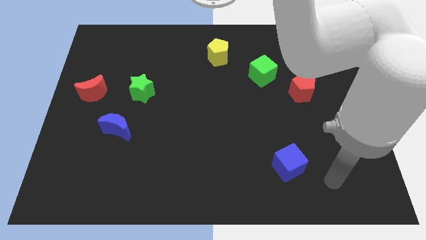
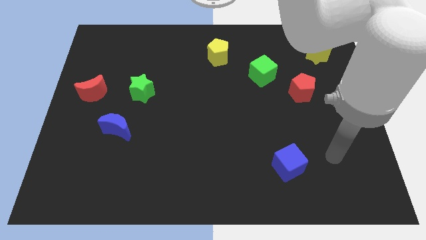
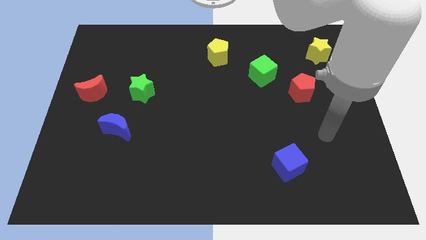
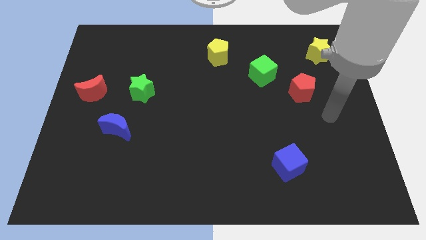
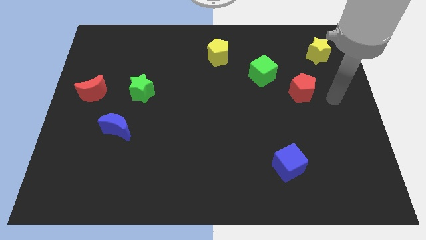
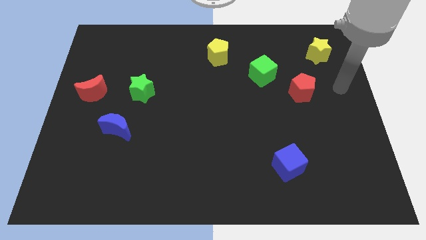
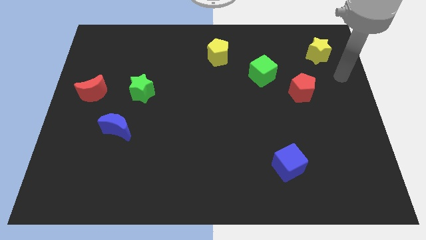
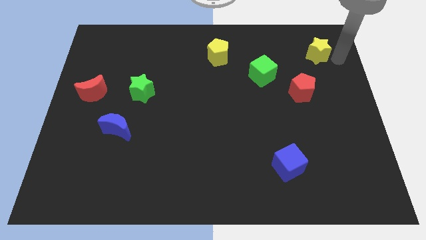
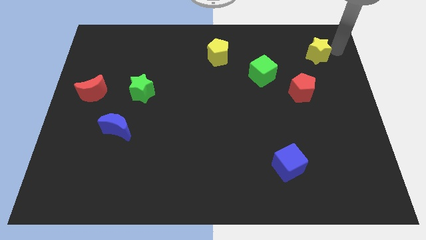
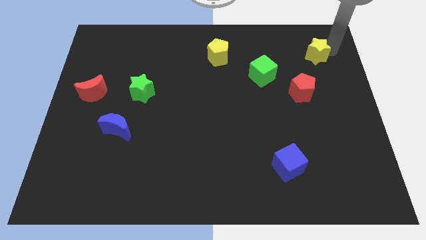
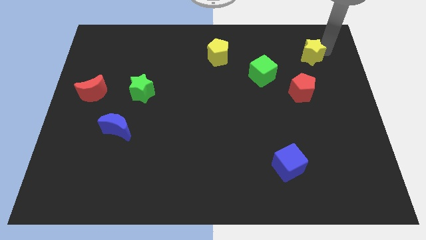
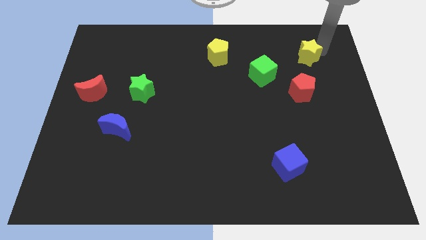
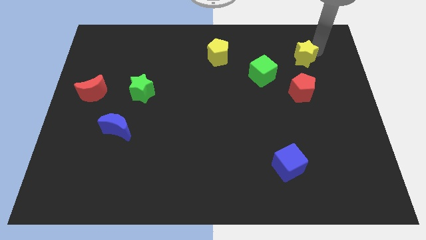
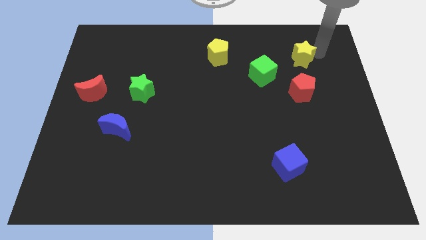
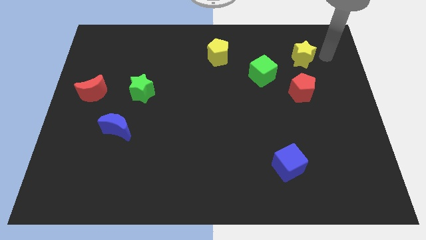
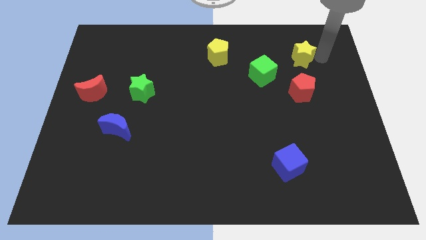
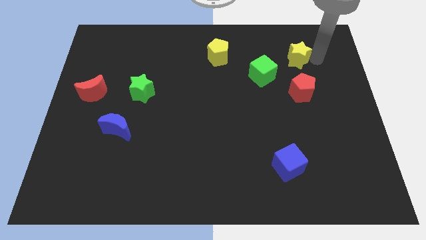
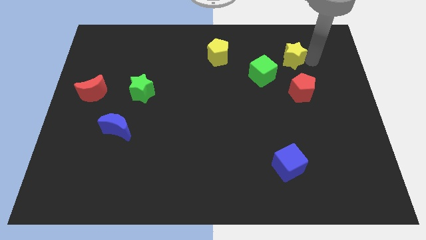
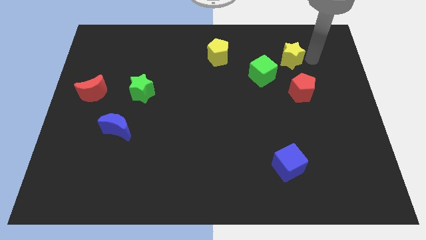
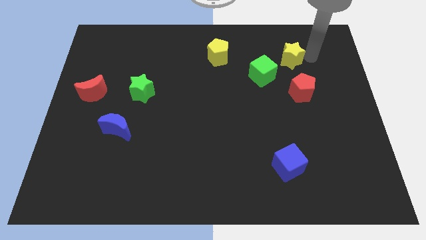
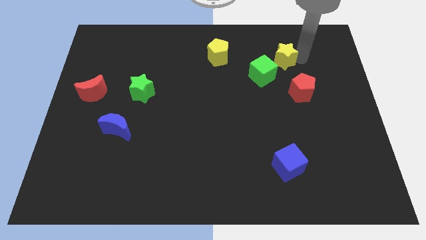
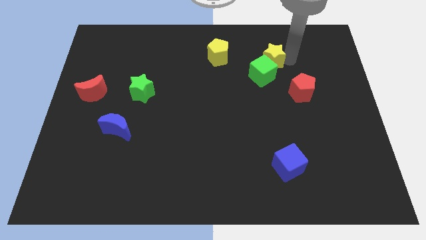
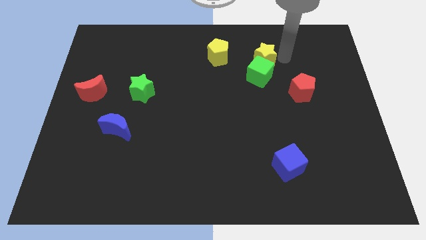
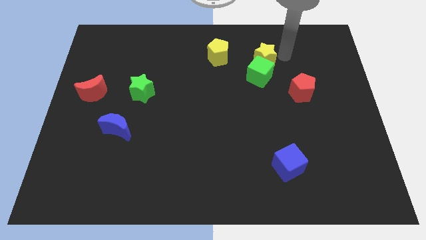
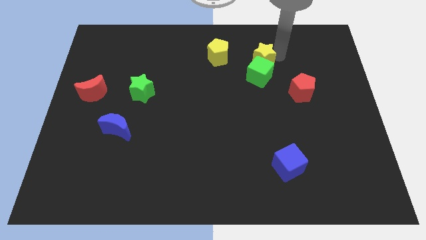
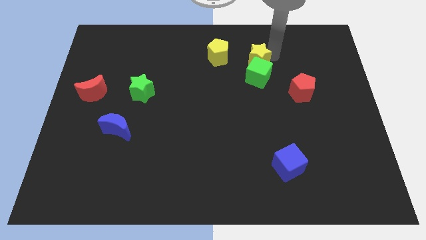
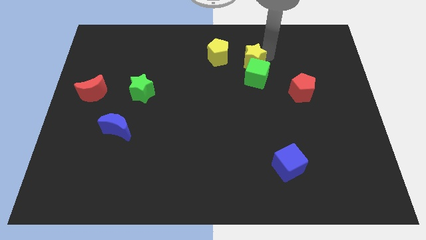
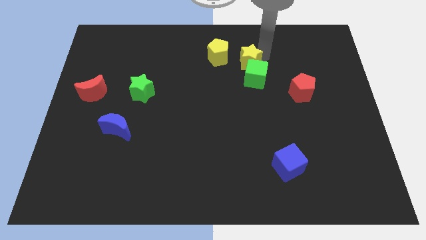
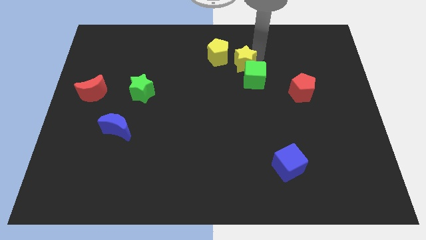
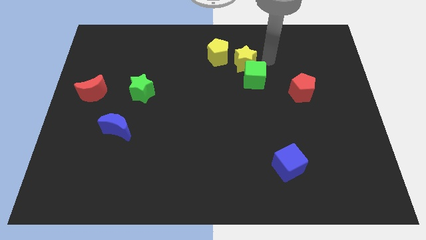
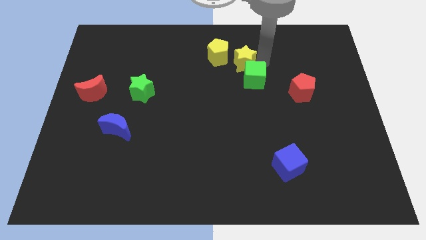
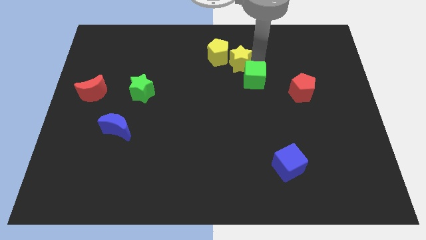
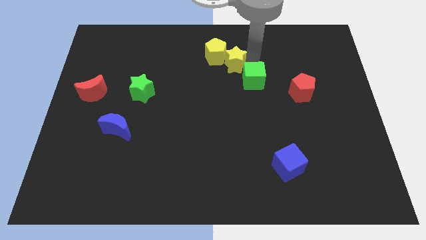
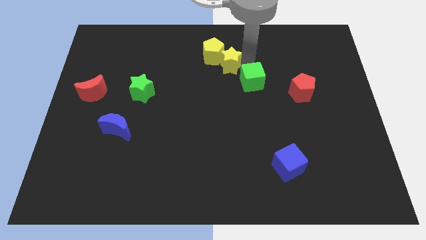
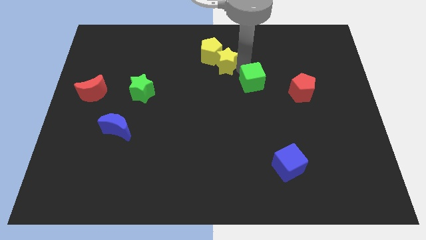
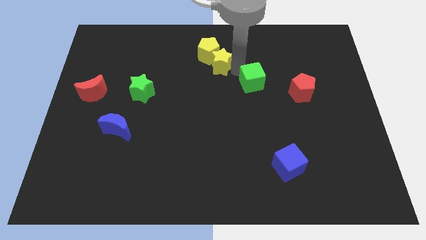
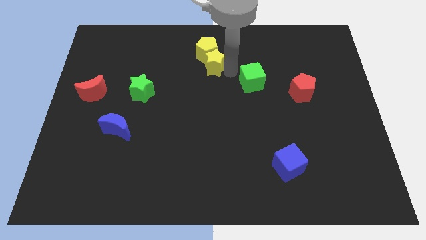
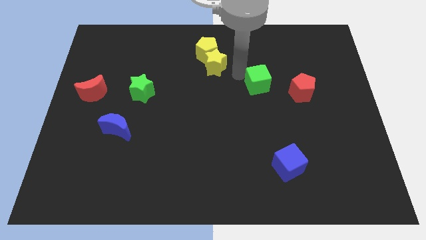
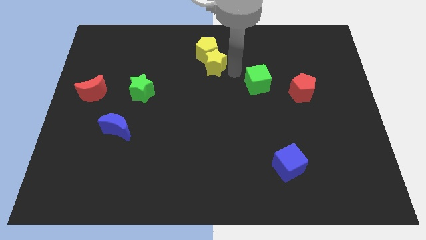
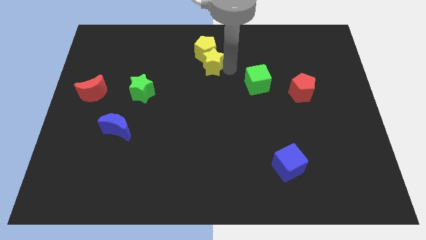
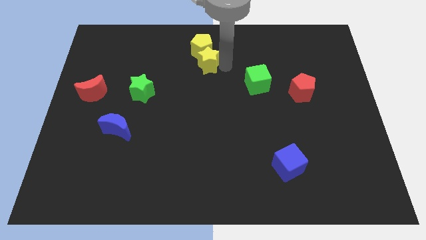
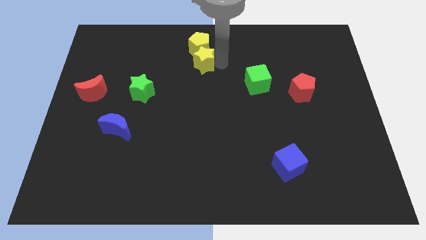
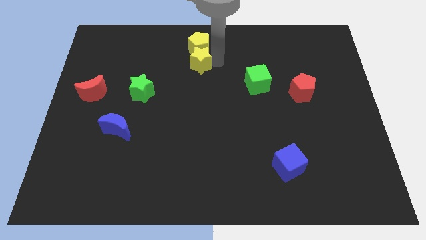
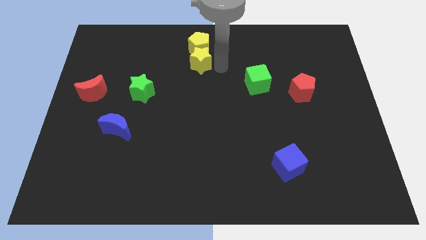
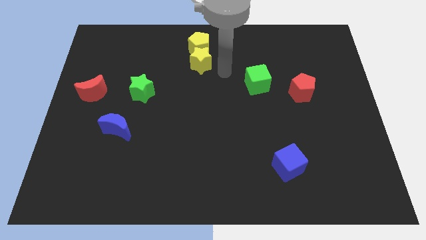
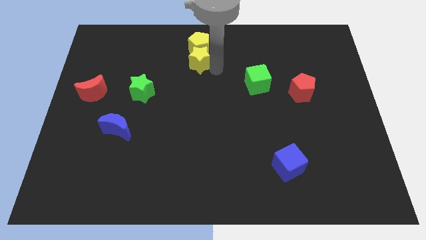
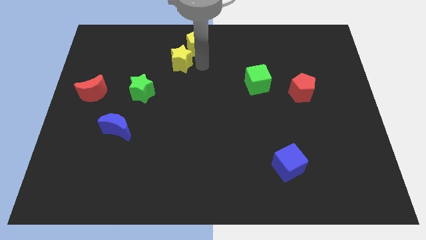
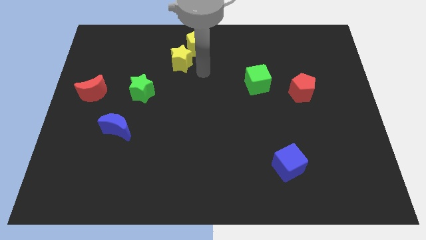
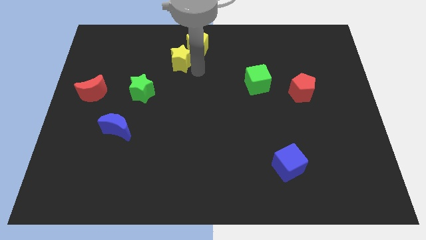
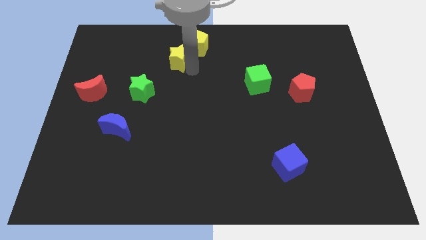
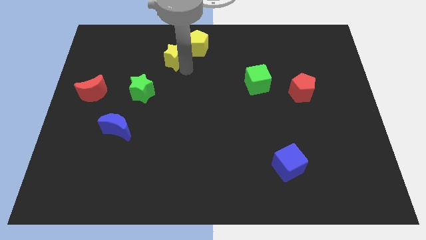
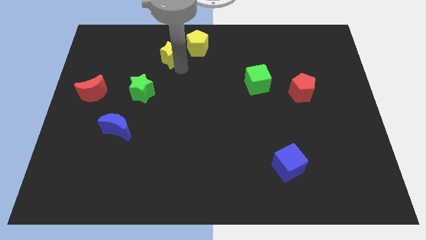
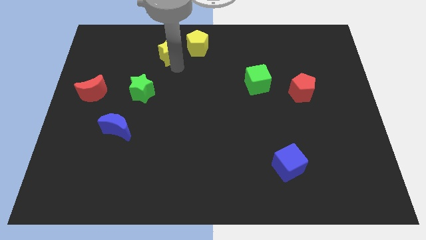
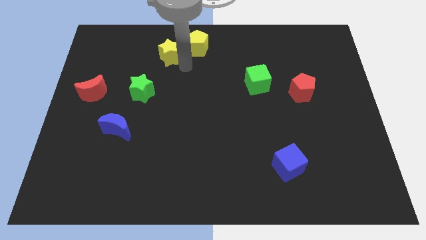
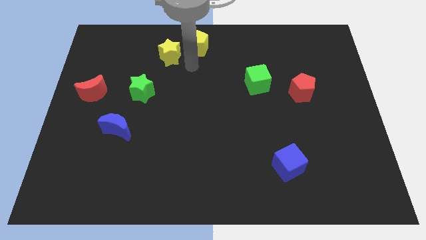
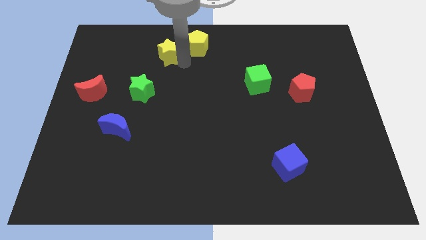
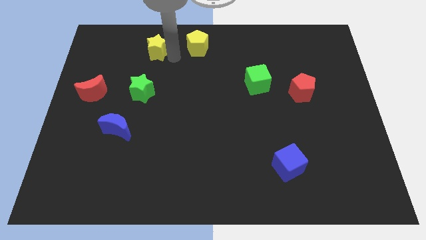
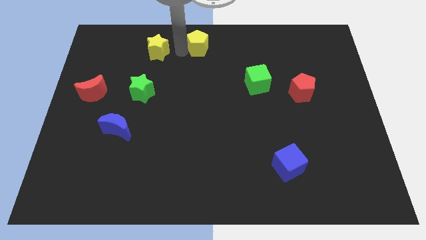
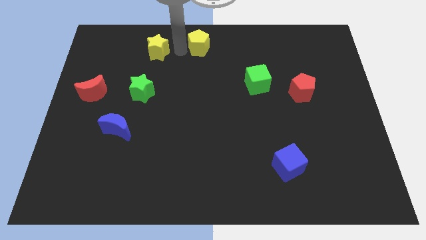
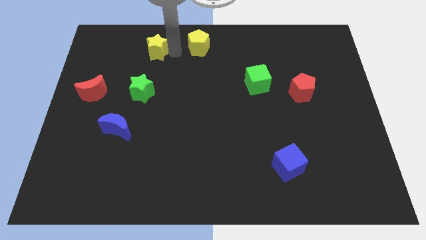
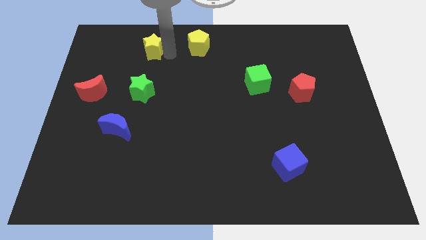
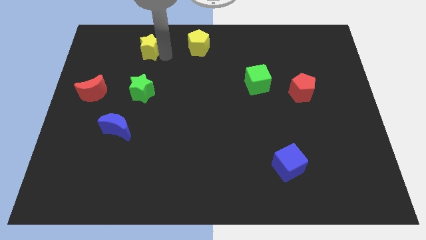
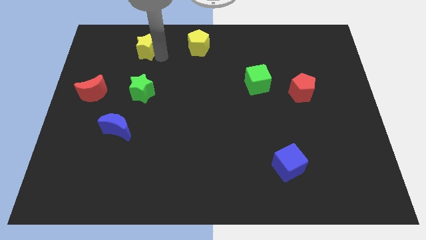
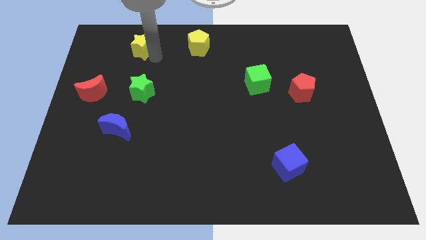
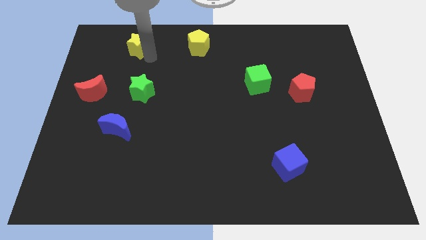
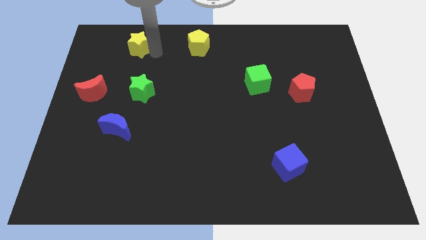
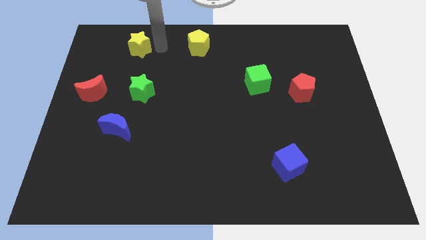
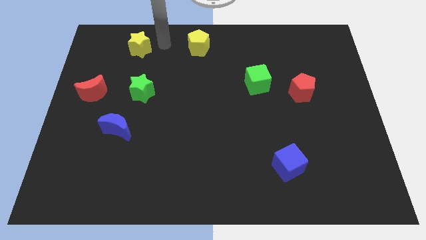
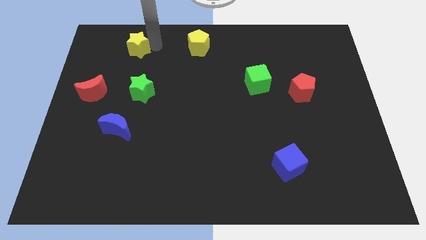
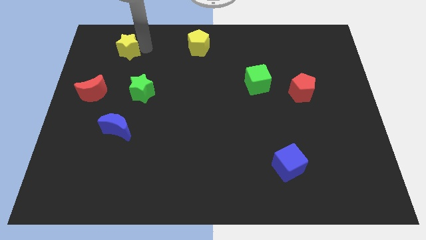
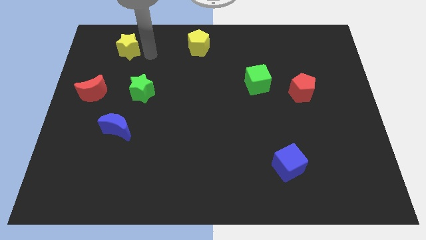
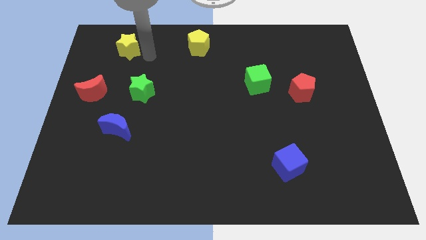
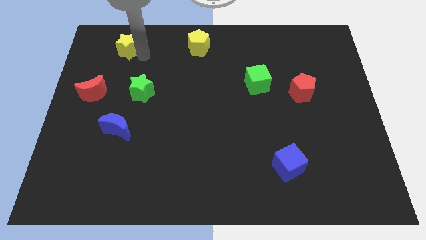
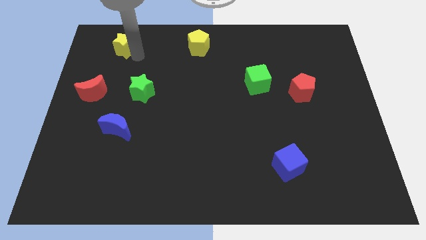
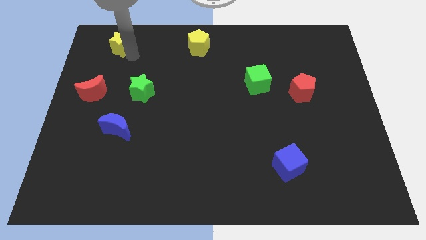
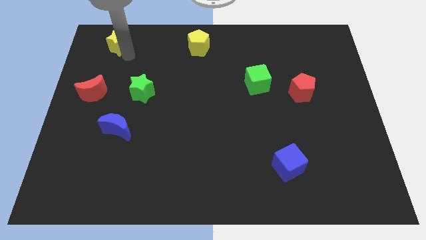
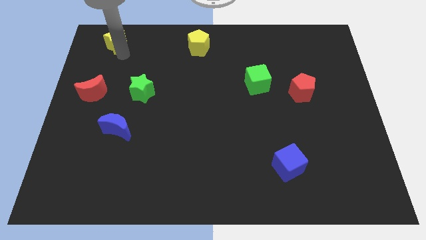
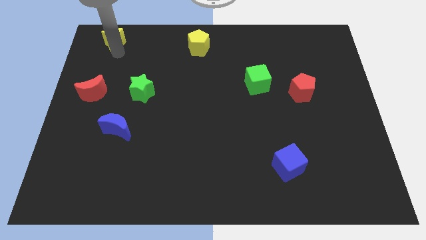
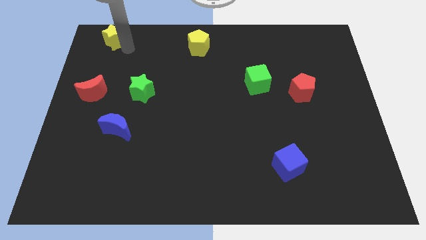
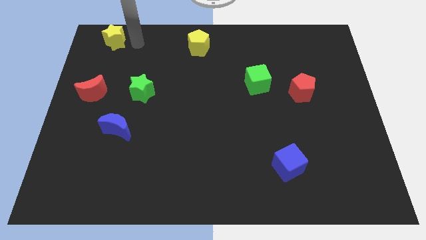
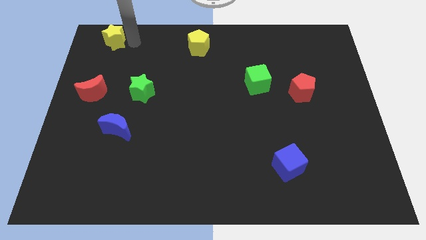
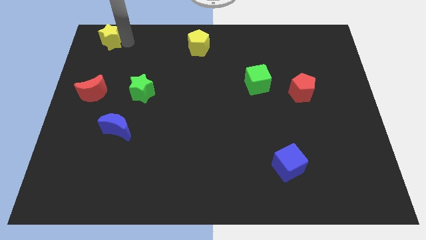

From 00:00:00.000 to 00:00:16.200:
put the yellow star to the upper left corner
